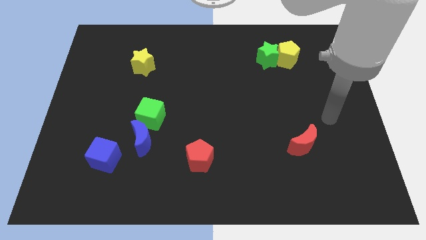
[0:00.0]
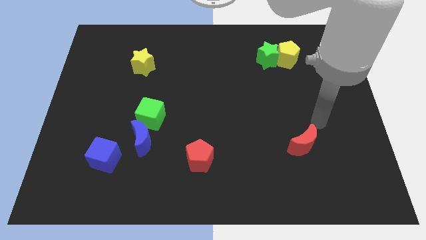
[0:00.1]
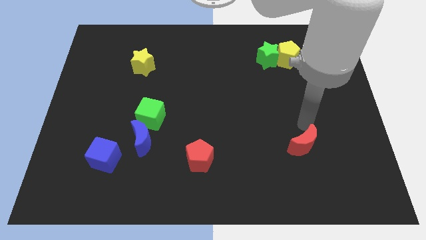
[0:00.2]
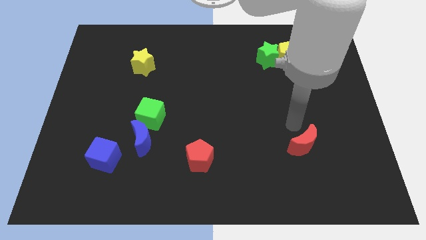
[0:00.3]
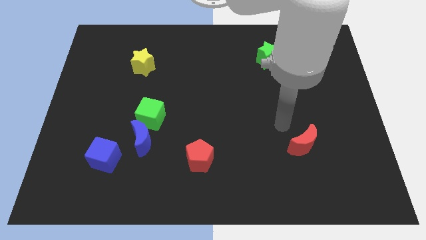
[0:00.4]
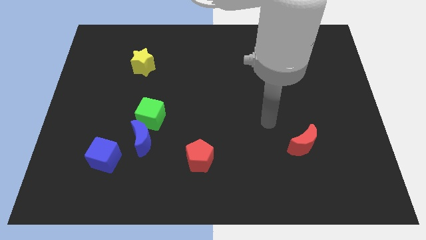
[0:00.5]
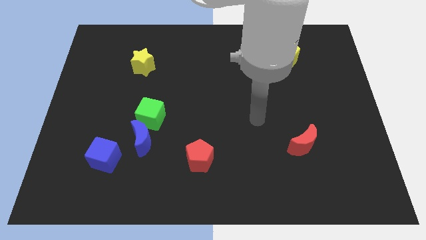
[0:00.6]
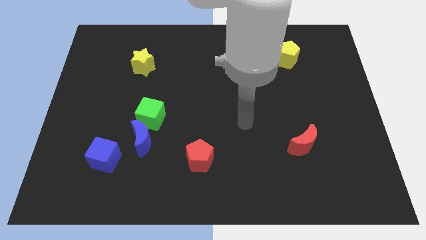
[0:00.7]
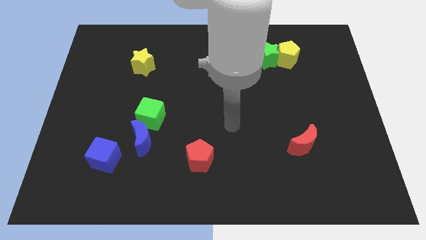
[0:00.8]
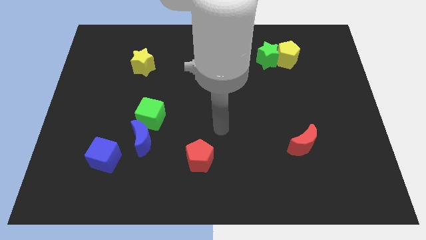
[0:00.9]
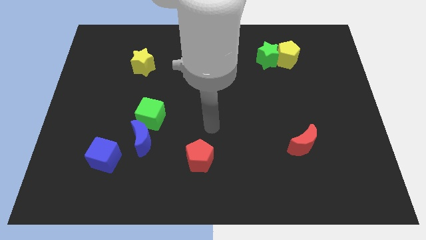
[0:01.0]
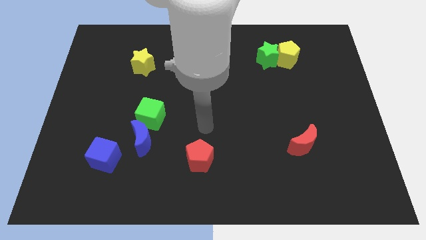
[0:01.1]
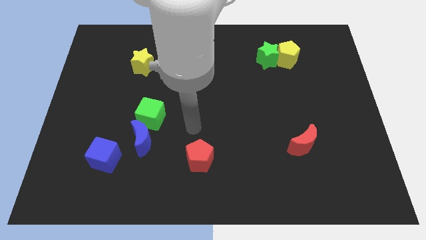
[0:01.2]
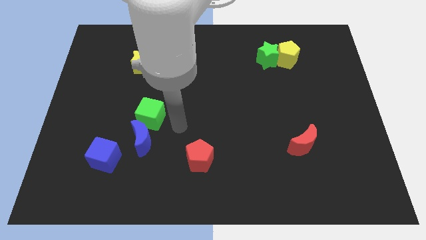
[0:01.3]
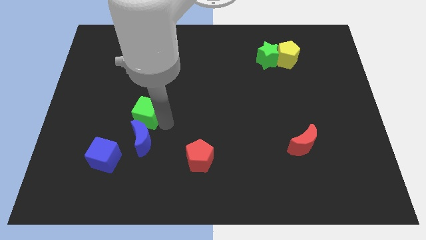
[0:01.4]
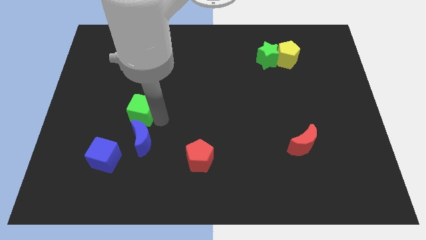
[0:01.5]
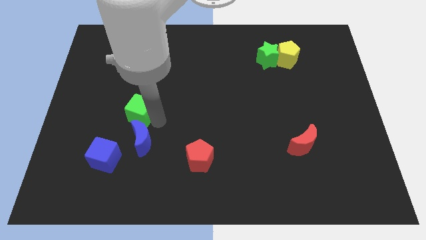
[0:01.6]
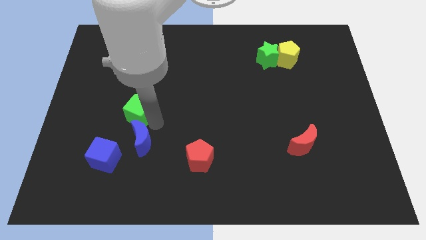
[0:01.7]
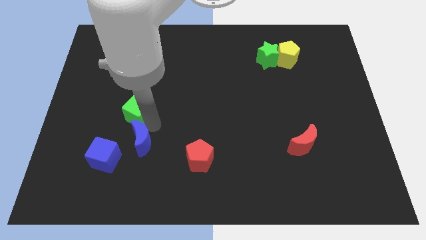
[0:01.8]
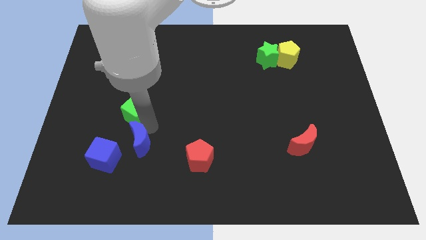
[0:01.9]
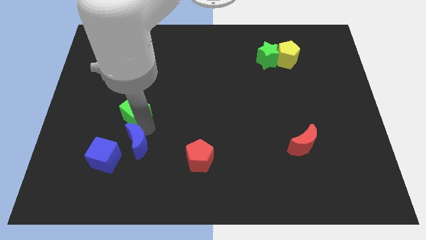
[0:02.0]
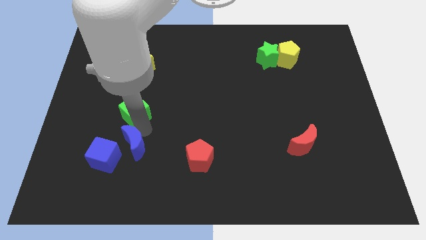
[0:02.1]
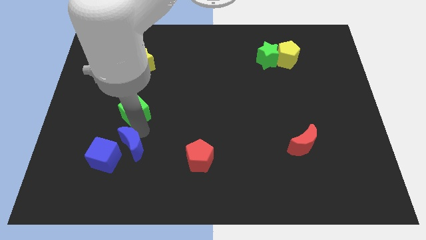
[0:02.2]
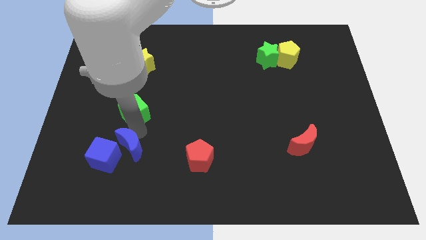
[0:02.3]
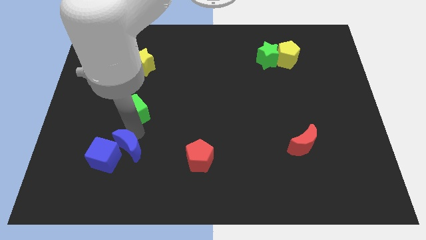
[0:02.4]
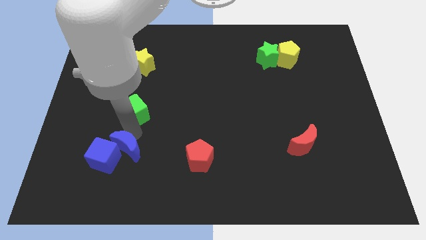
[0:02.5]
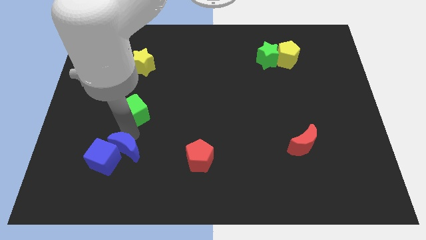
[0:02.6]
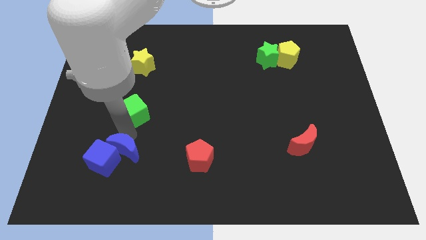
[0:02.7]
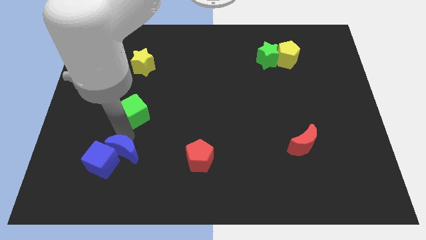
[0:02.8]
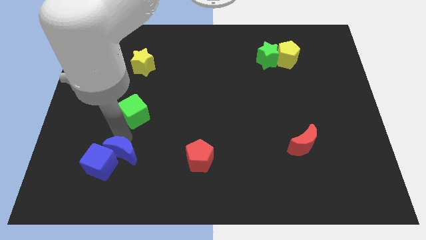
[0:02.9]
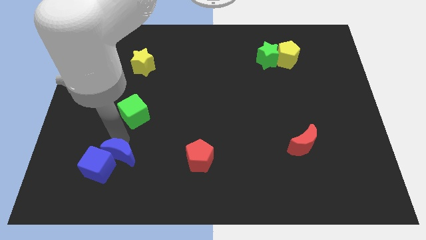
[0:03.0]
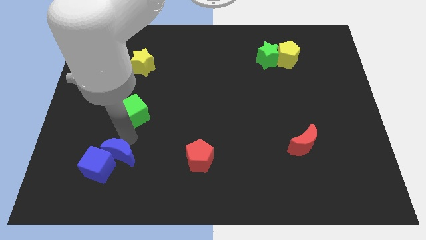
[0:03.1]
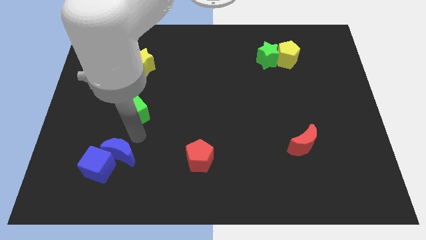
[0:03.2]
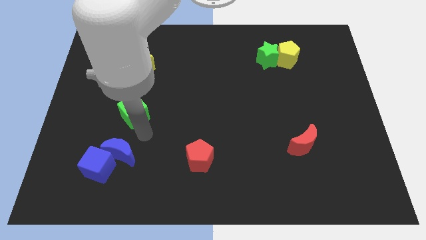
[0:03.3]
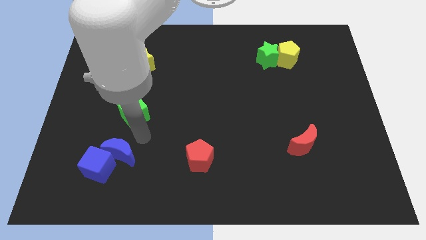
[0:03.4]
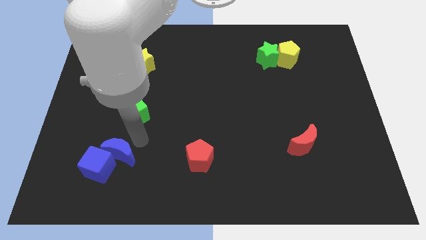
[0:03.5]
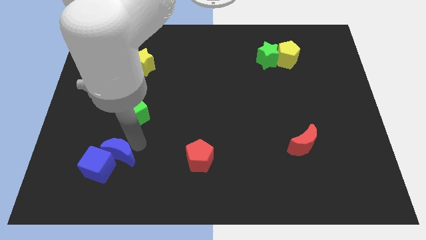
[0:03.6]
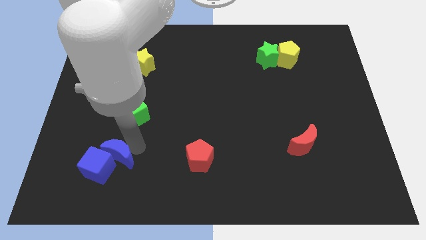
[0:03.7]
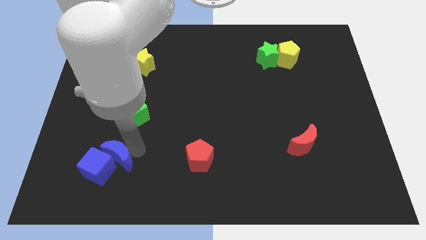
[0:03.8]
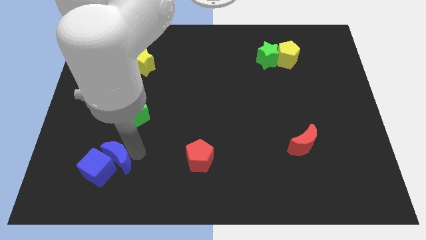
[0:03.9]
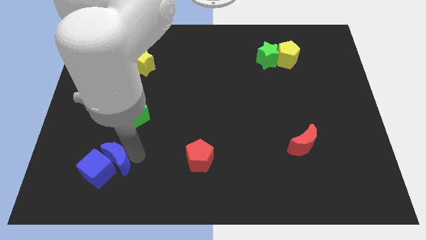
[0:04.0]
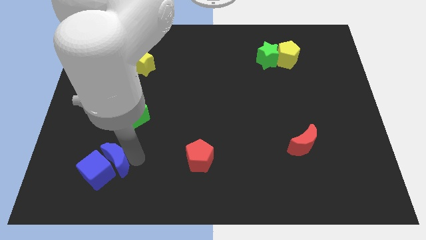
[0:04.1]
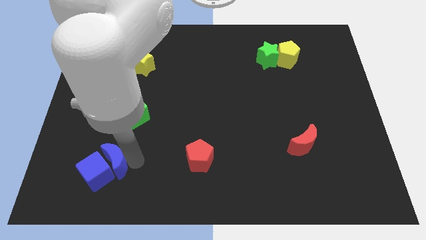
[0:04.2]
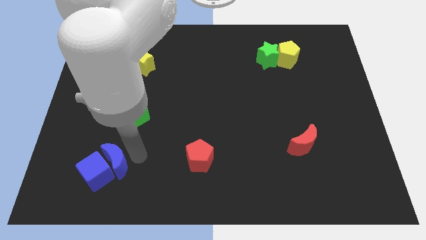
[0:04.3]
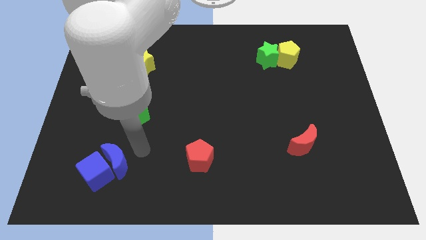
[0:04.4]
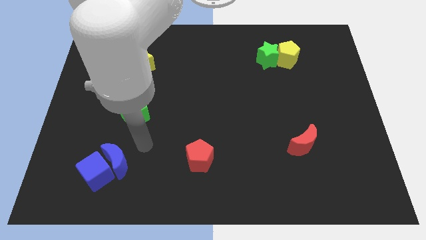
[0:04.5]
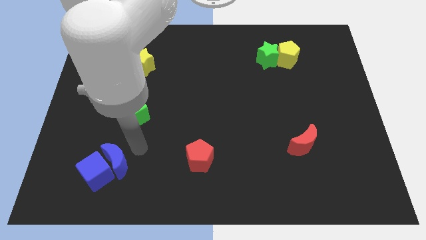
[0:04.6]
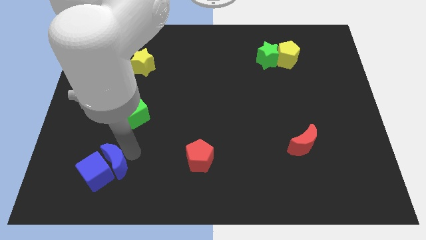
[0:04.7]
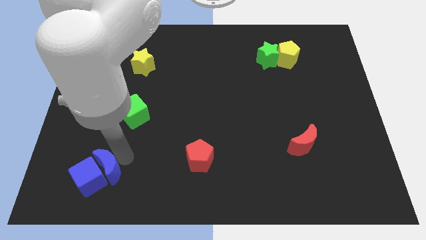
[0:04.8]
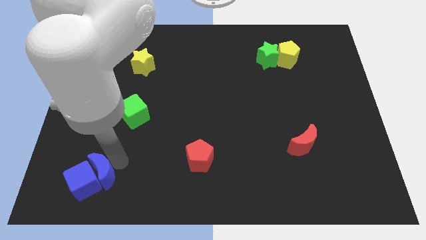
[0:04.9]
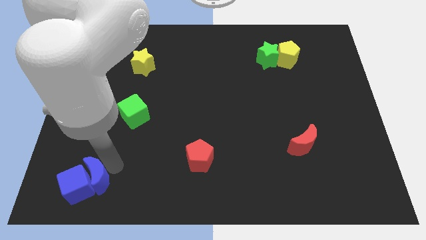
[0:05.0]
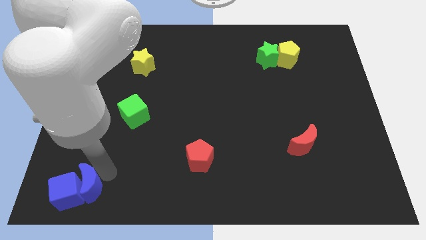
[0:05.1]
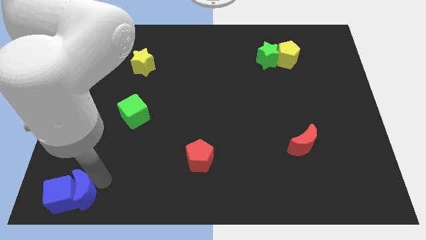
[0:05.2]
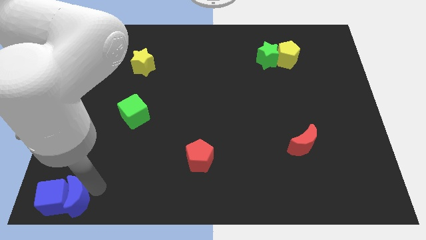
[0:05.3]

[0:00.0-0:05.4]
slide the blue moon to the lower left corner

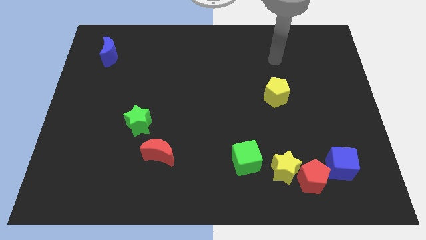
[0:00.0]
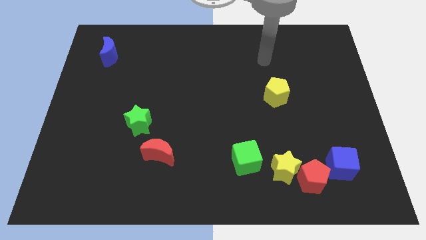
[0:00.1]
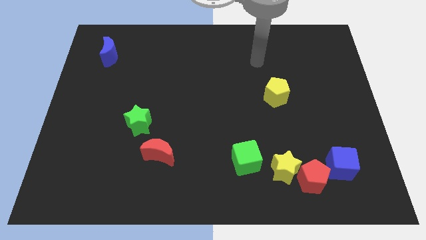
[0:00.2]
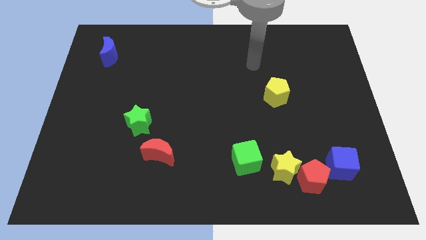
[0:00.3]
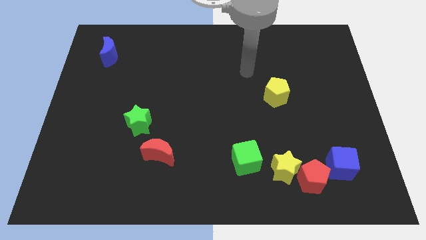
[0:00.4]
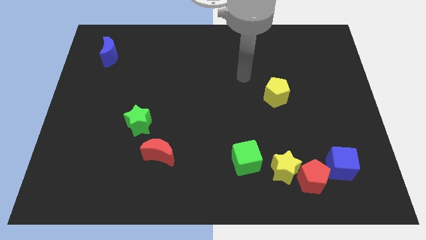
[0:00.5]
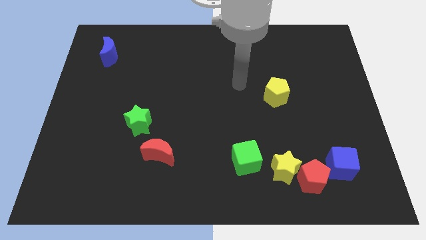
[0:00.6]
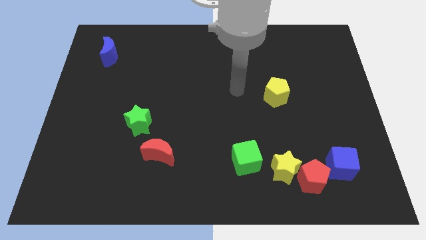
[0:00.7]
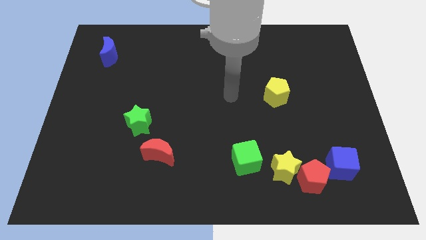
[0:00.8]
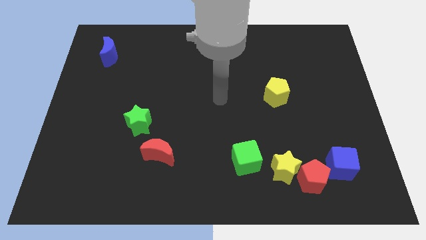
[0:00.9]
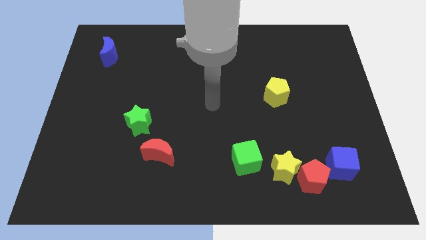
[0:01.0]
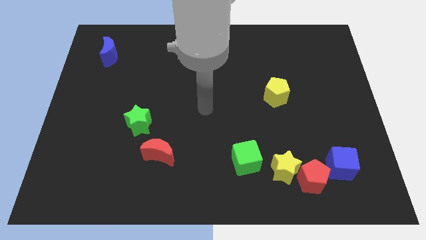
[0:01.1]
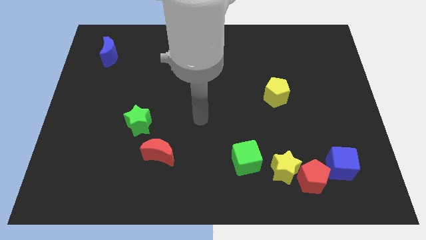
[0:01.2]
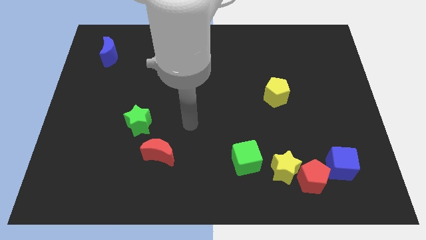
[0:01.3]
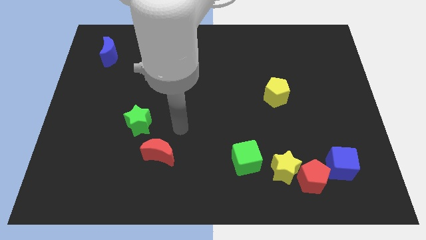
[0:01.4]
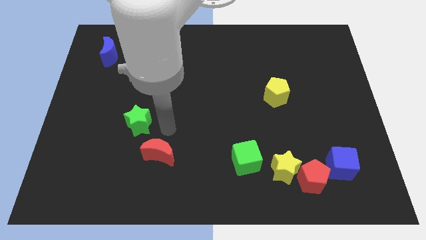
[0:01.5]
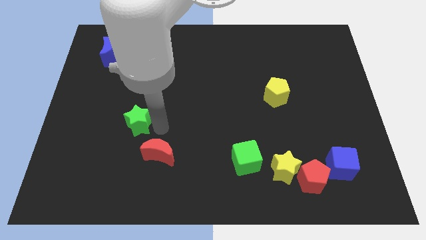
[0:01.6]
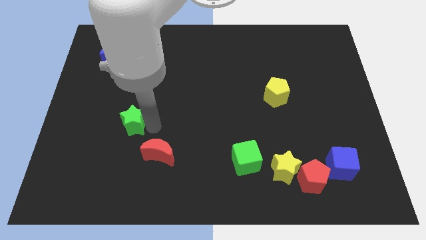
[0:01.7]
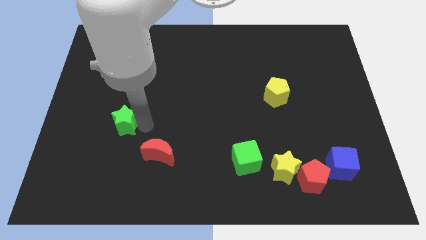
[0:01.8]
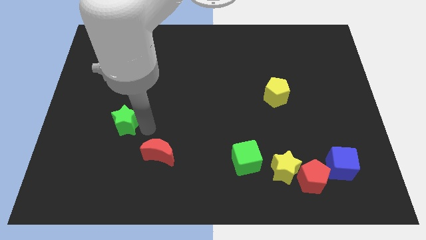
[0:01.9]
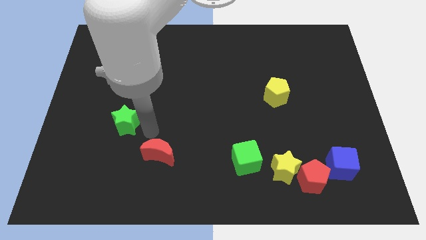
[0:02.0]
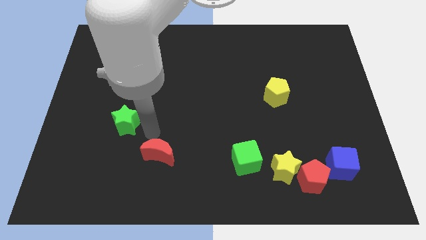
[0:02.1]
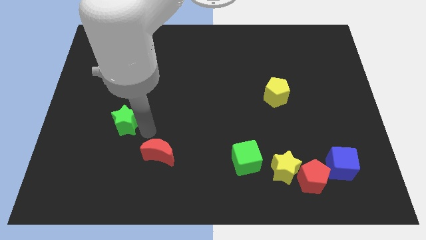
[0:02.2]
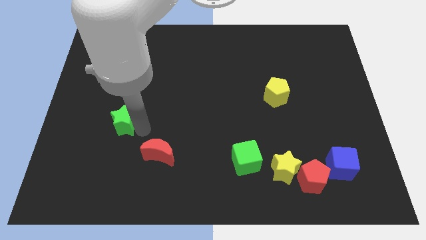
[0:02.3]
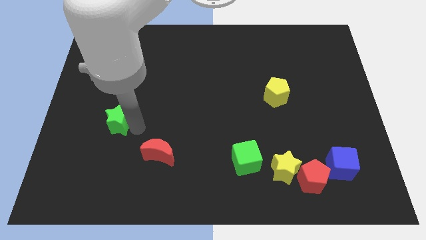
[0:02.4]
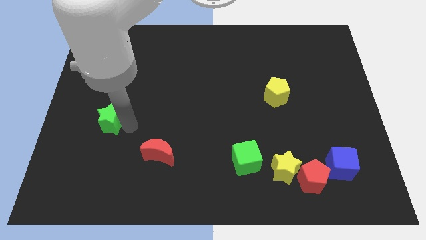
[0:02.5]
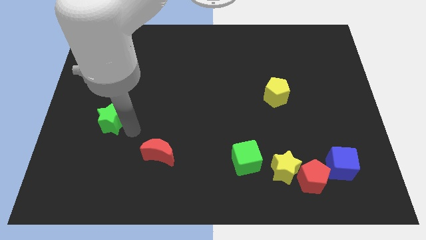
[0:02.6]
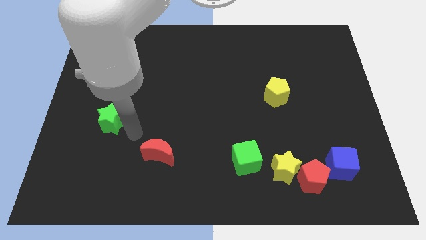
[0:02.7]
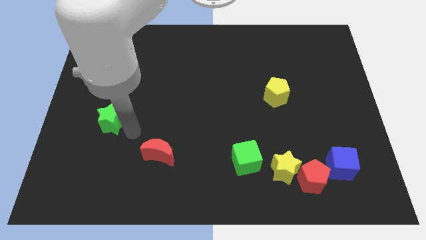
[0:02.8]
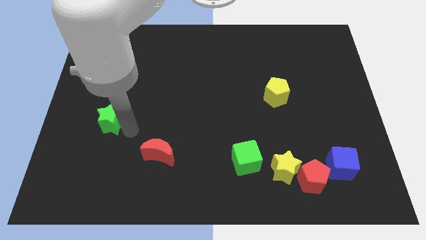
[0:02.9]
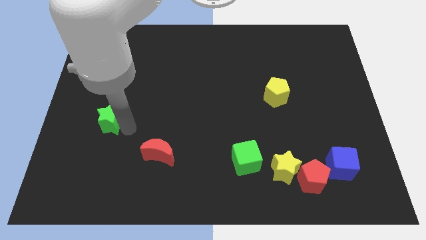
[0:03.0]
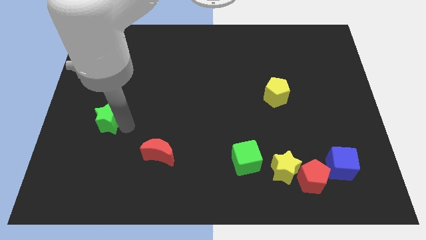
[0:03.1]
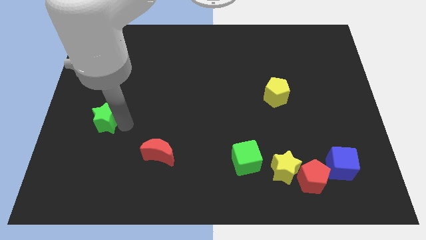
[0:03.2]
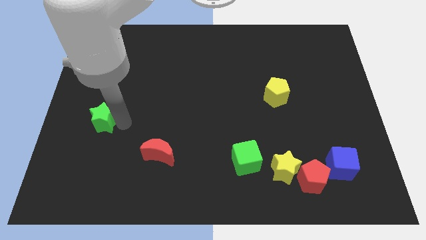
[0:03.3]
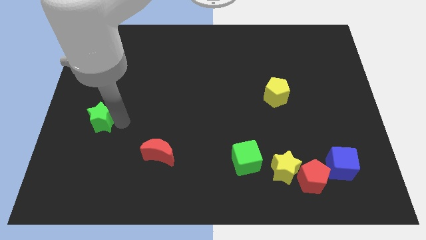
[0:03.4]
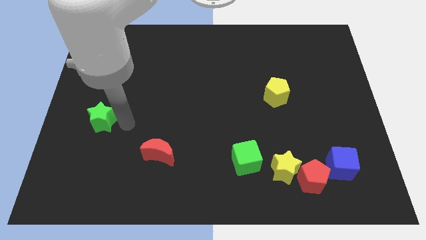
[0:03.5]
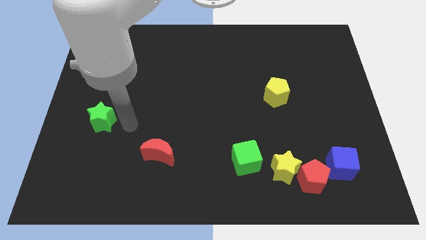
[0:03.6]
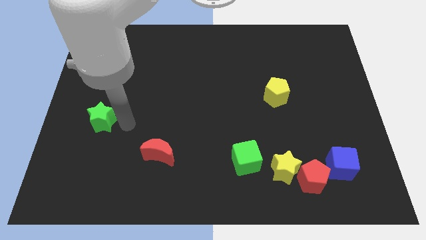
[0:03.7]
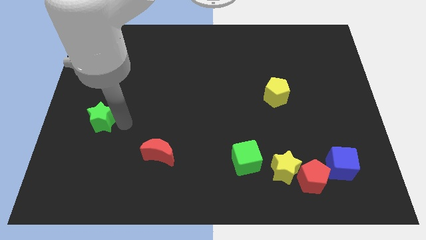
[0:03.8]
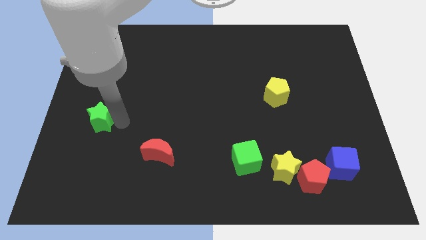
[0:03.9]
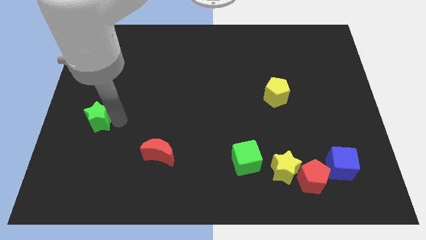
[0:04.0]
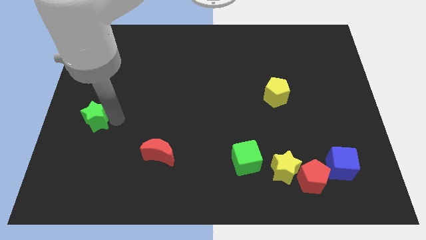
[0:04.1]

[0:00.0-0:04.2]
slide the green star to the left side of the board
